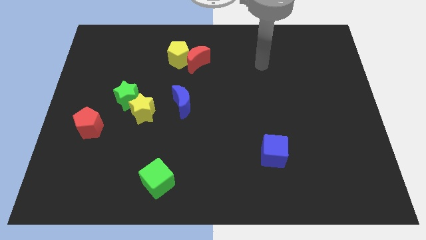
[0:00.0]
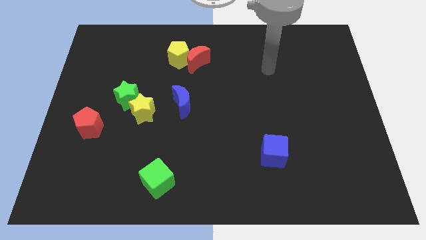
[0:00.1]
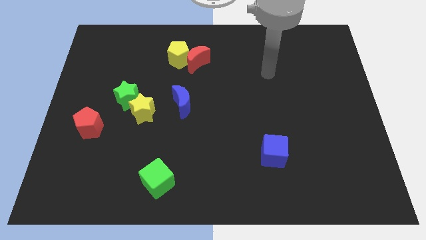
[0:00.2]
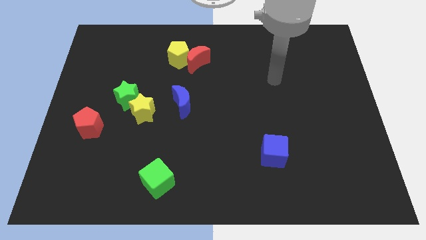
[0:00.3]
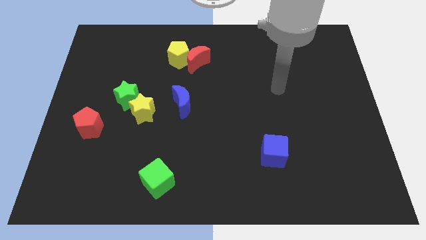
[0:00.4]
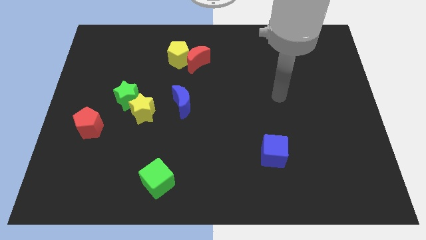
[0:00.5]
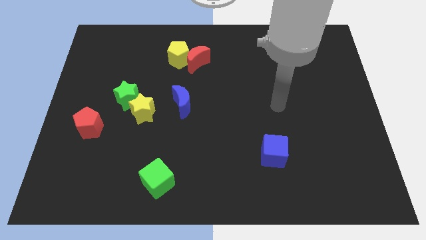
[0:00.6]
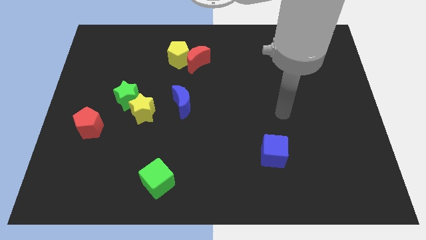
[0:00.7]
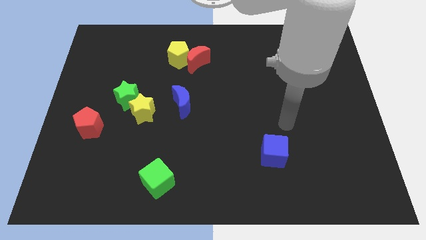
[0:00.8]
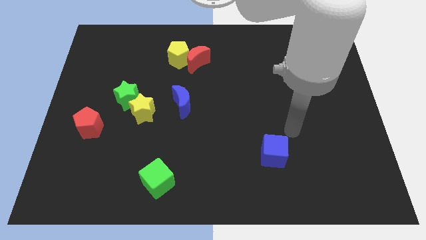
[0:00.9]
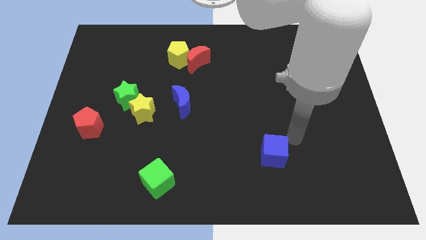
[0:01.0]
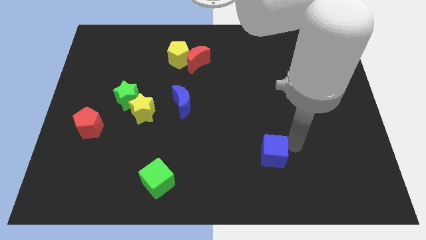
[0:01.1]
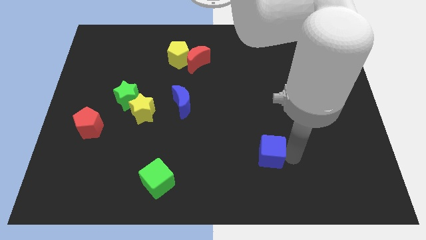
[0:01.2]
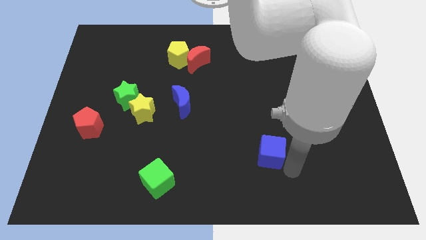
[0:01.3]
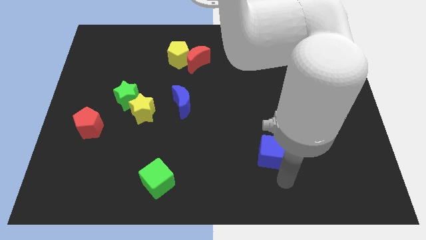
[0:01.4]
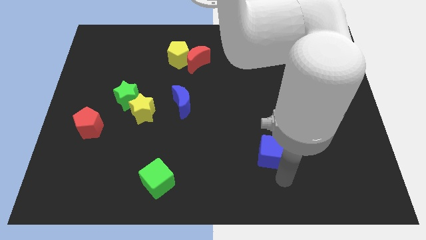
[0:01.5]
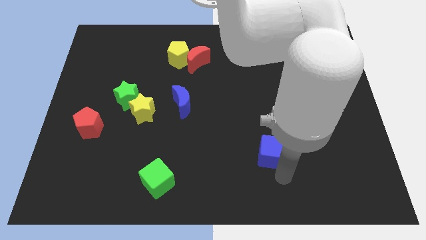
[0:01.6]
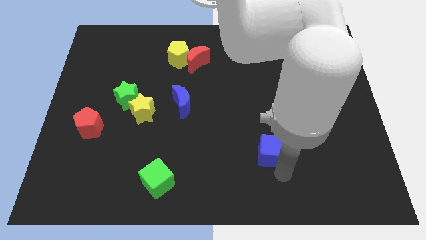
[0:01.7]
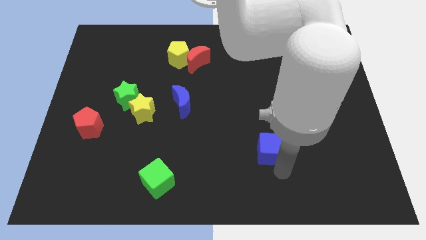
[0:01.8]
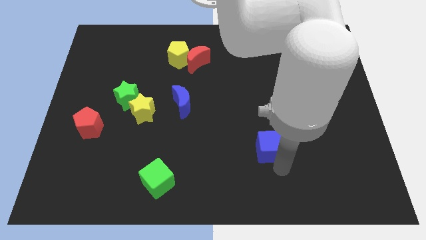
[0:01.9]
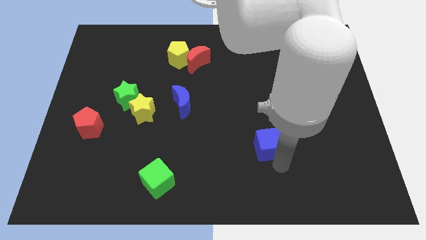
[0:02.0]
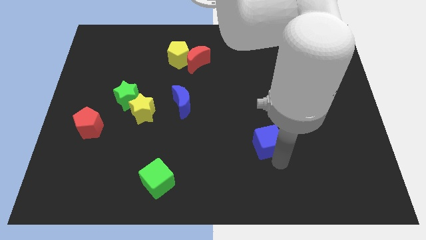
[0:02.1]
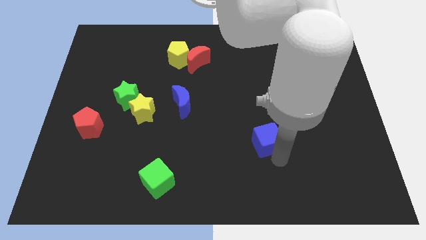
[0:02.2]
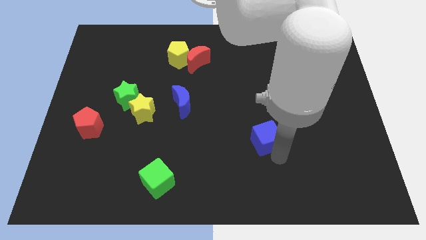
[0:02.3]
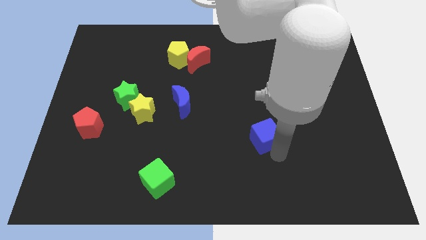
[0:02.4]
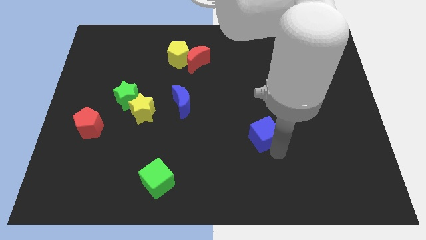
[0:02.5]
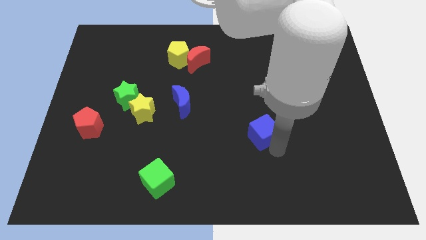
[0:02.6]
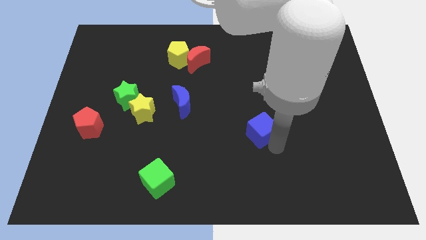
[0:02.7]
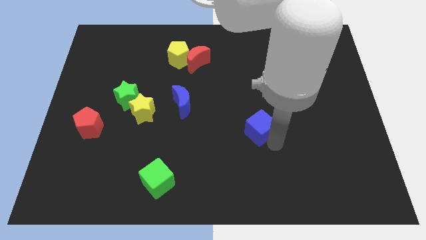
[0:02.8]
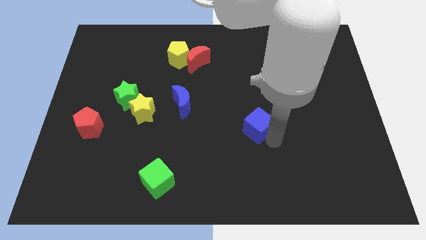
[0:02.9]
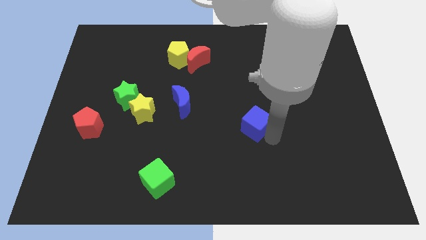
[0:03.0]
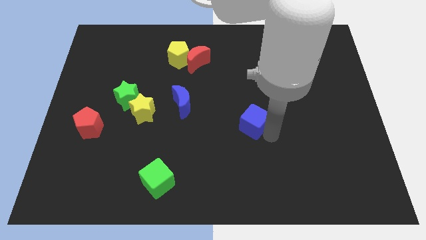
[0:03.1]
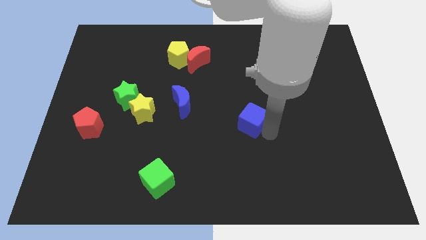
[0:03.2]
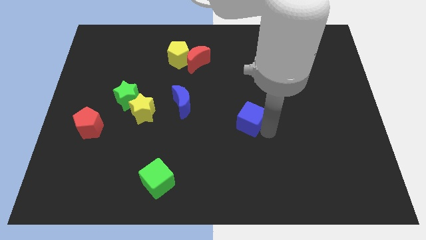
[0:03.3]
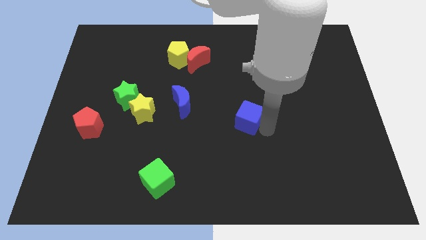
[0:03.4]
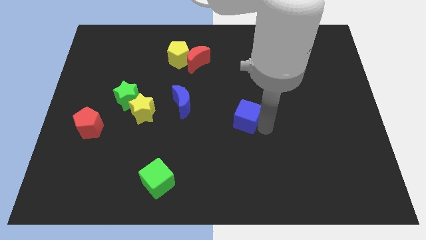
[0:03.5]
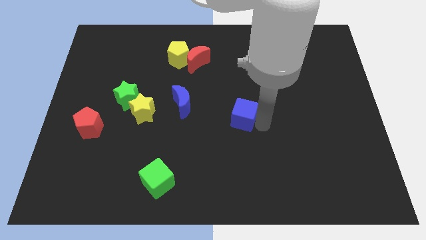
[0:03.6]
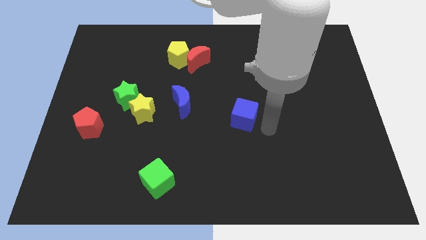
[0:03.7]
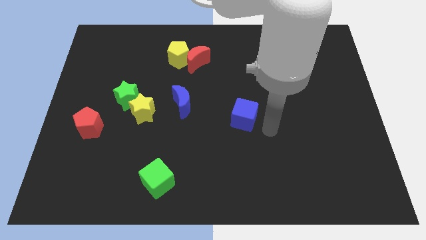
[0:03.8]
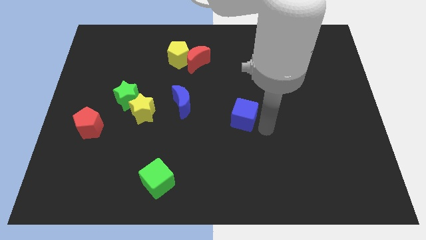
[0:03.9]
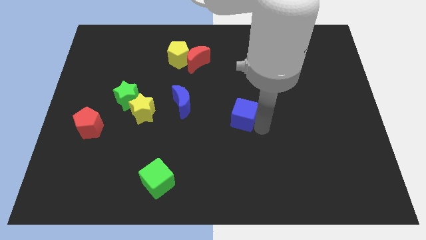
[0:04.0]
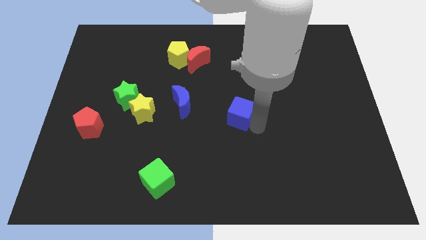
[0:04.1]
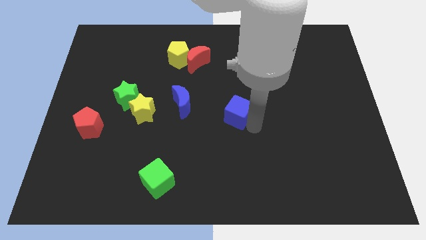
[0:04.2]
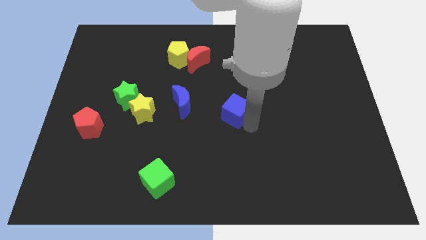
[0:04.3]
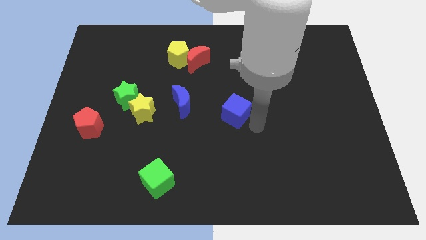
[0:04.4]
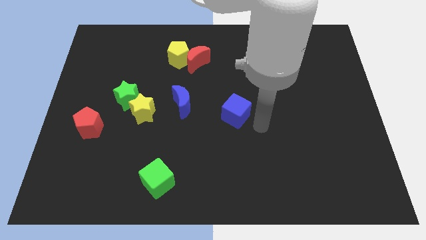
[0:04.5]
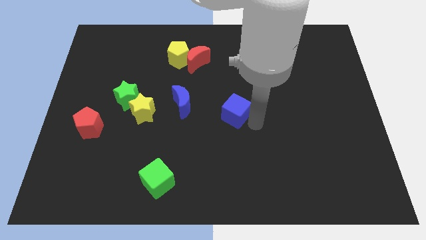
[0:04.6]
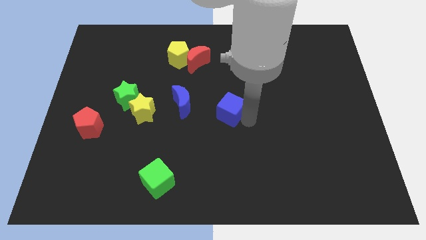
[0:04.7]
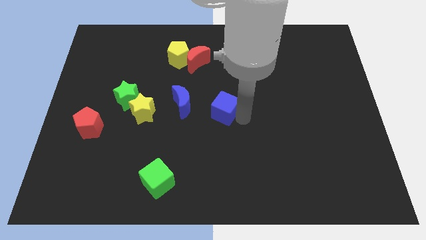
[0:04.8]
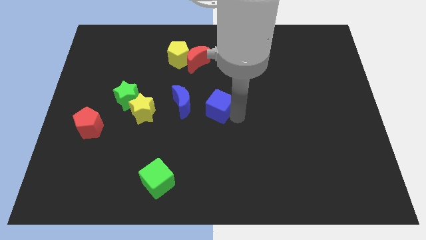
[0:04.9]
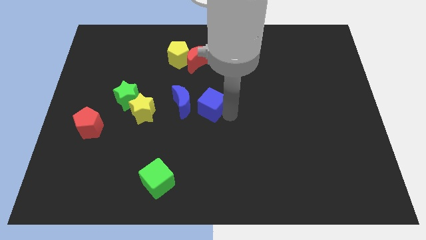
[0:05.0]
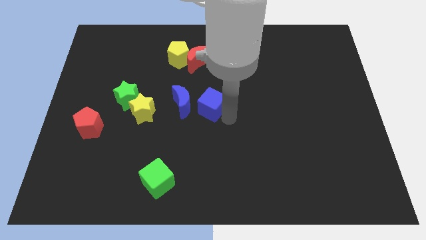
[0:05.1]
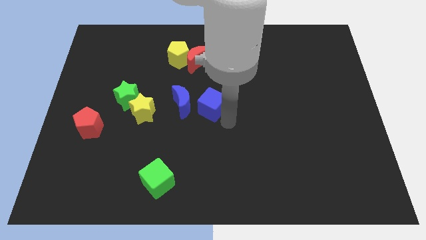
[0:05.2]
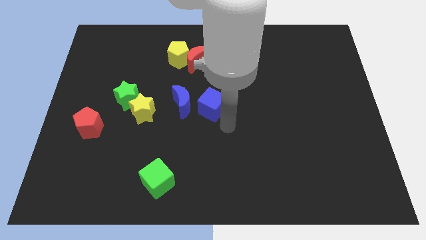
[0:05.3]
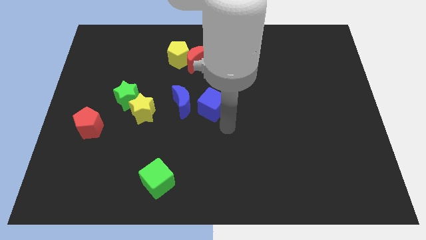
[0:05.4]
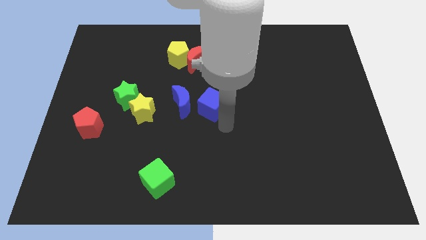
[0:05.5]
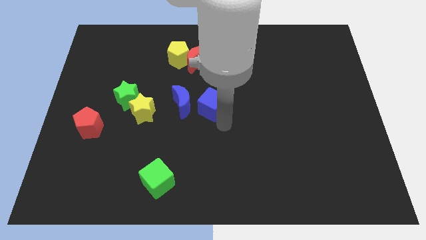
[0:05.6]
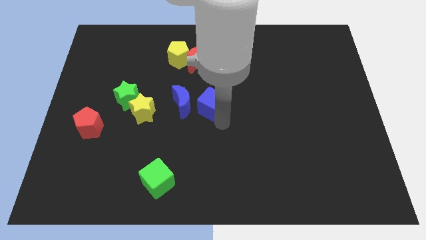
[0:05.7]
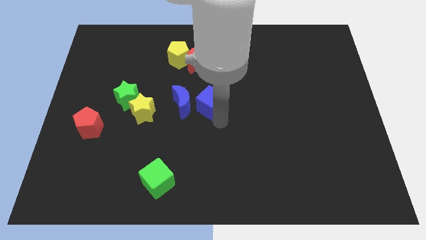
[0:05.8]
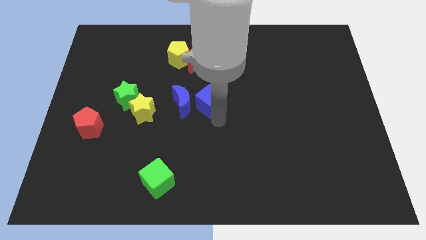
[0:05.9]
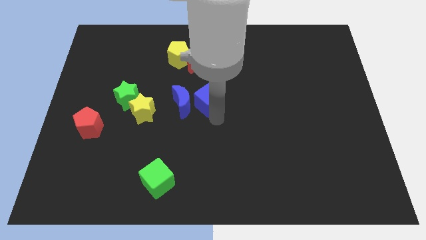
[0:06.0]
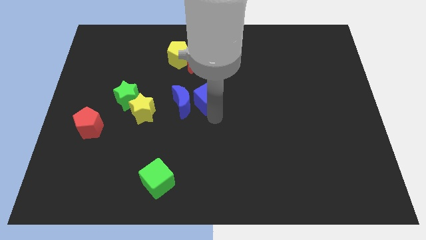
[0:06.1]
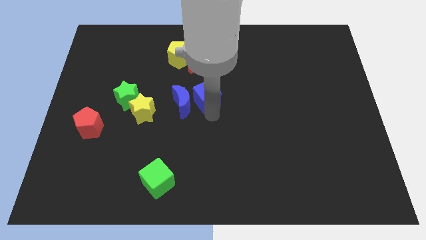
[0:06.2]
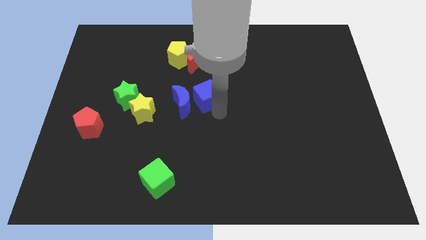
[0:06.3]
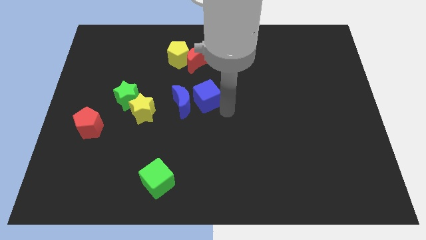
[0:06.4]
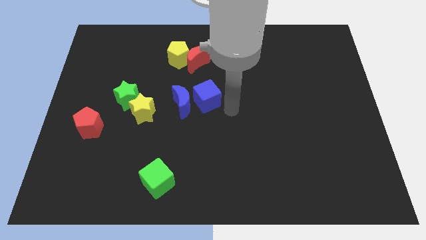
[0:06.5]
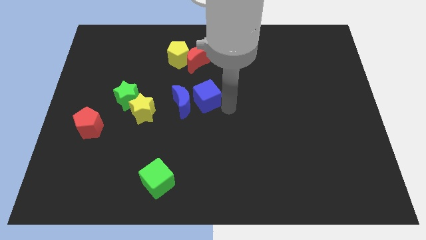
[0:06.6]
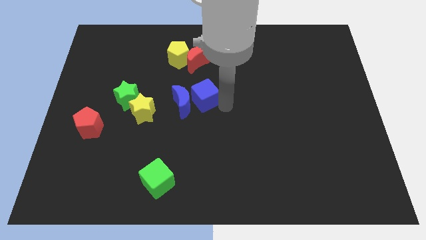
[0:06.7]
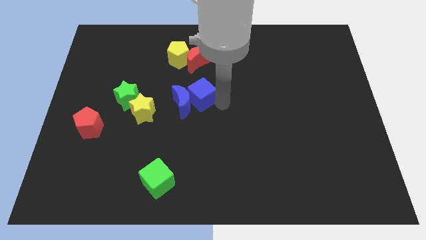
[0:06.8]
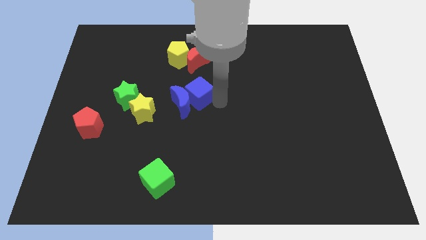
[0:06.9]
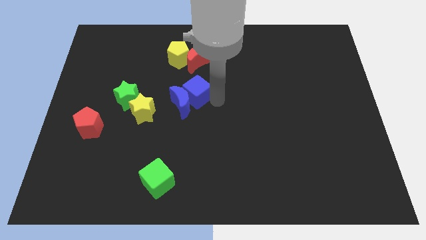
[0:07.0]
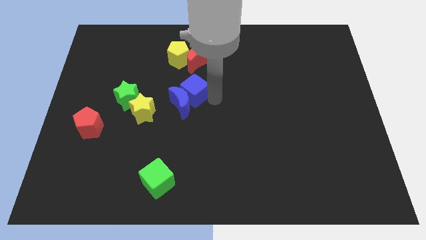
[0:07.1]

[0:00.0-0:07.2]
slide the blue cube to the bottom side of the yellow pentagon
